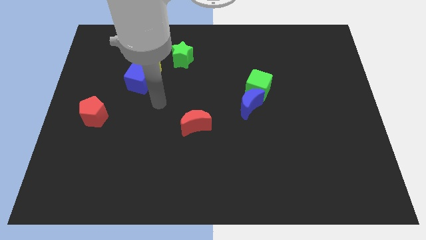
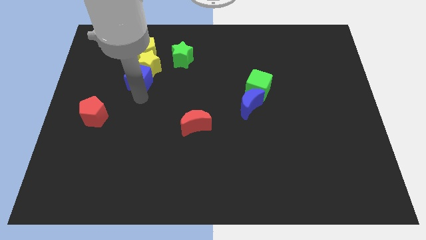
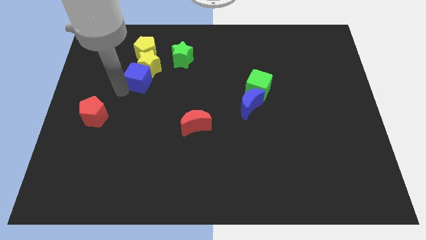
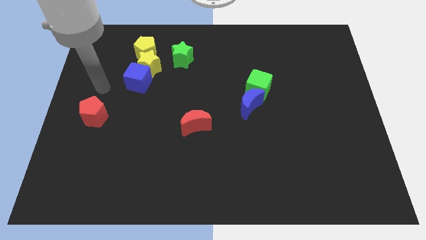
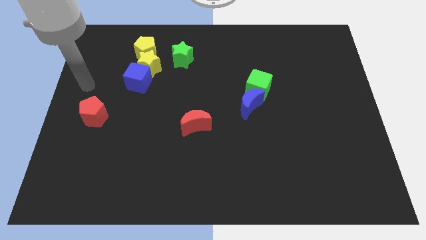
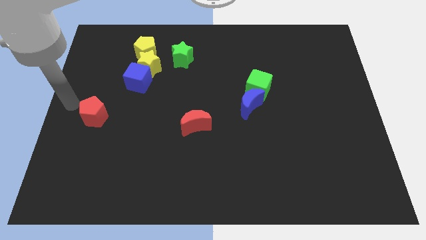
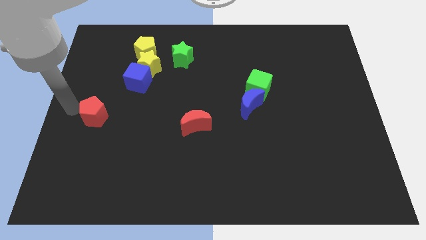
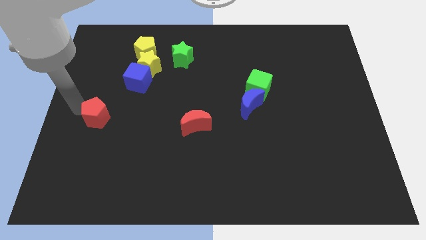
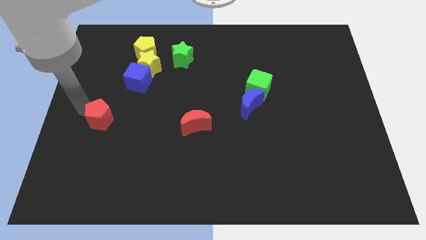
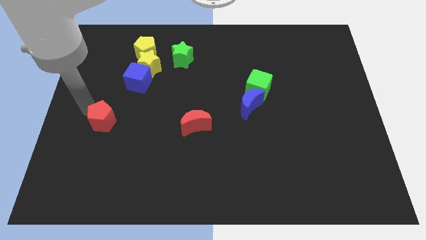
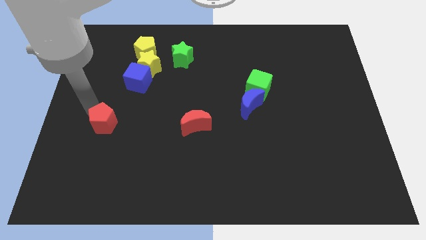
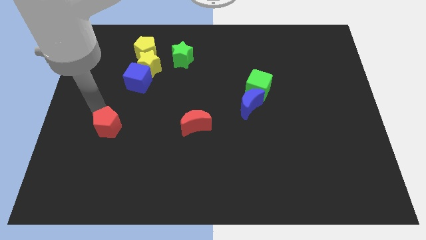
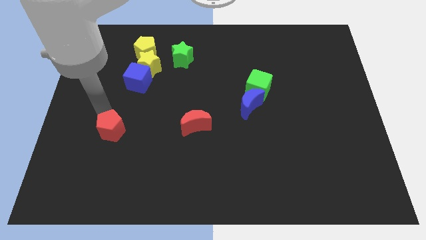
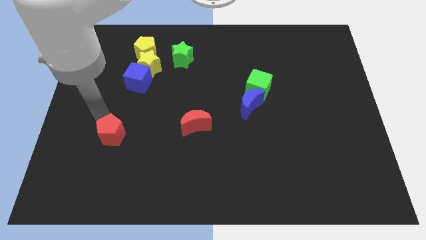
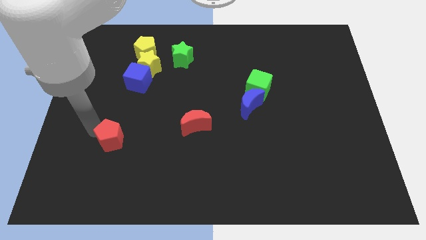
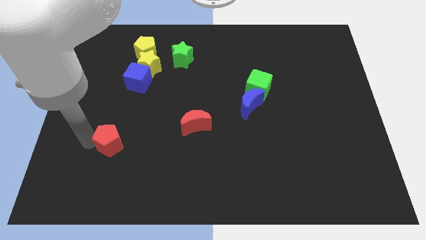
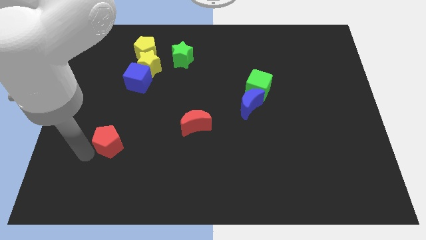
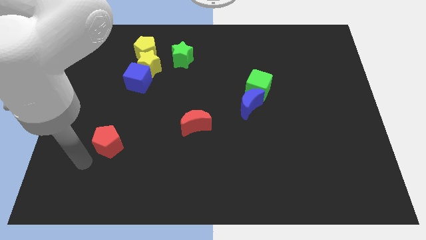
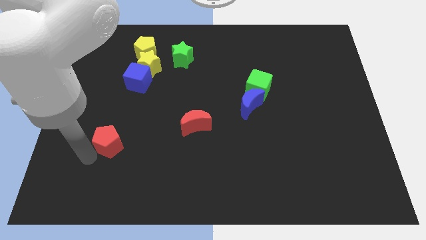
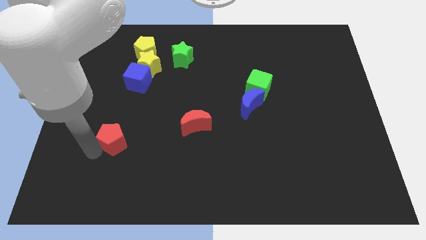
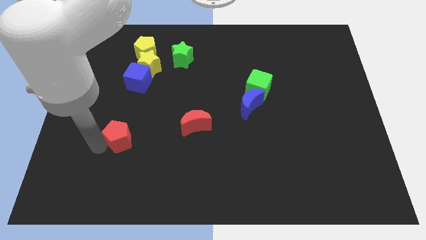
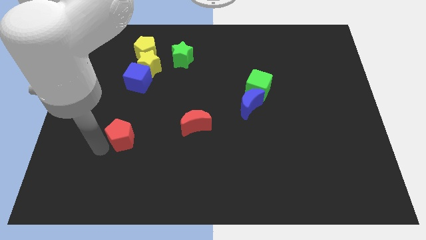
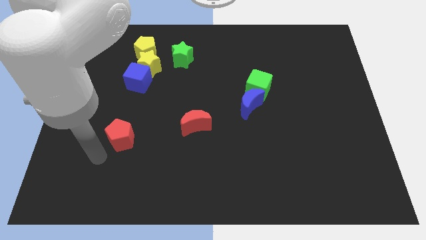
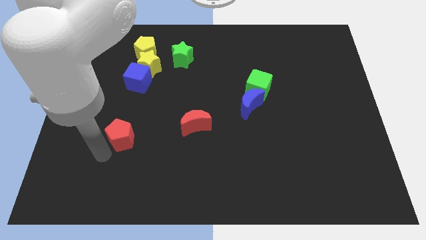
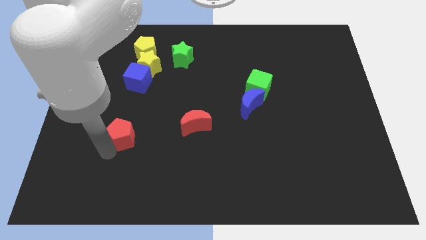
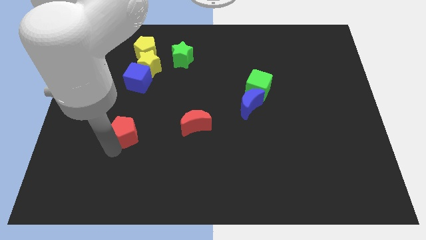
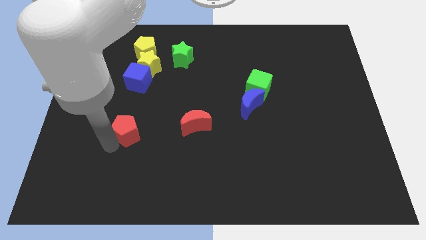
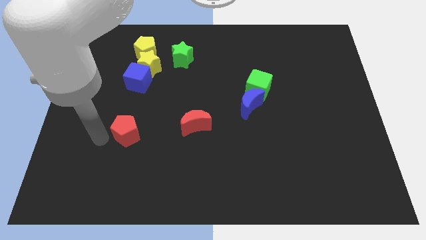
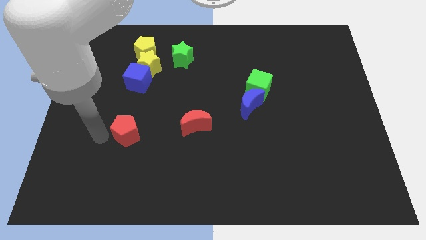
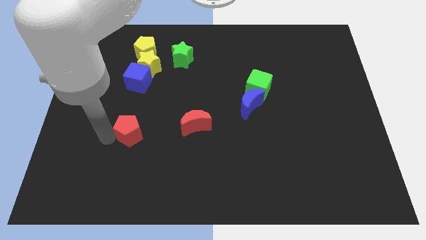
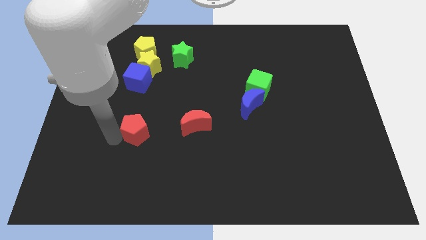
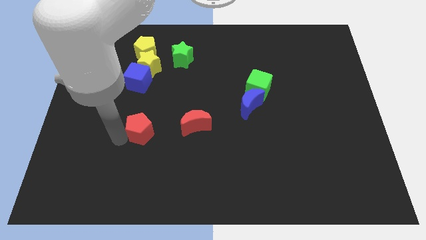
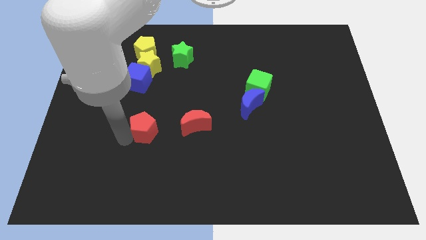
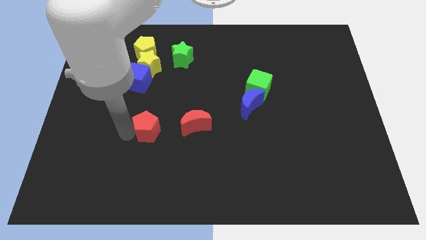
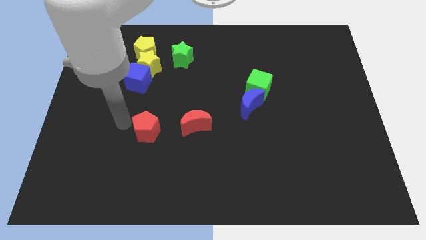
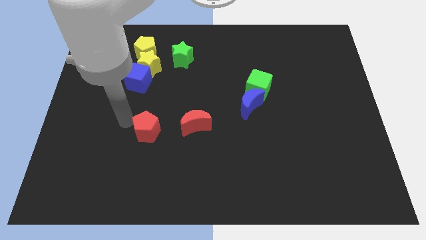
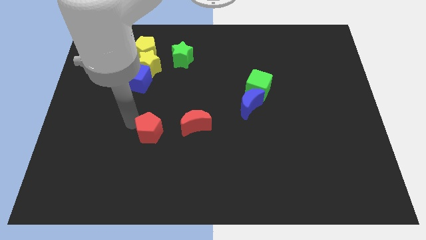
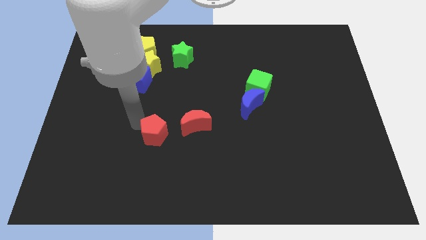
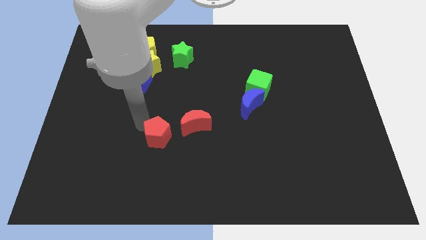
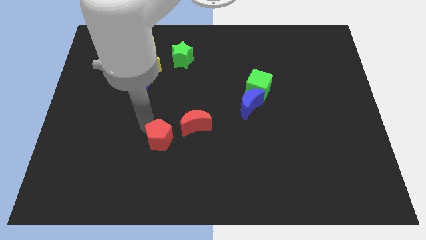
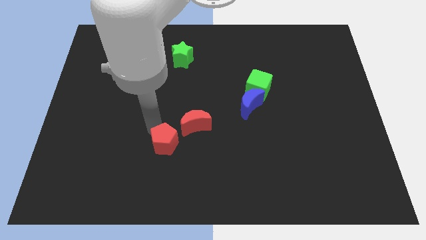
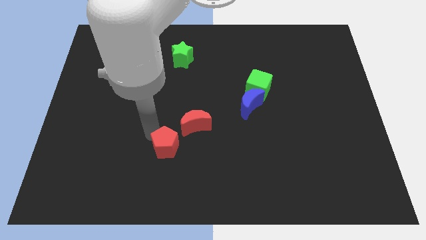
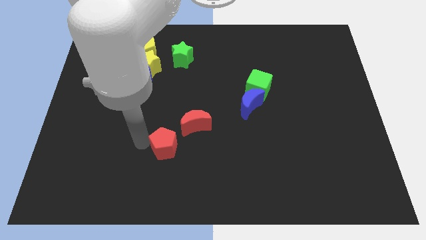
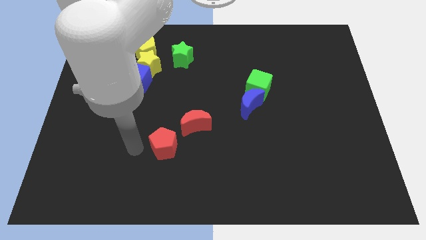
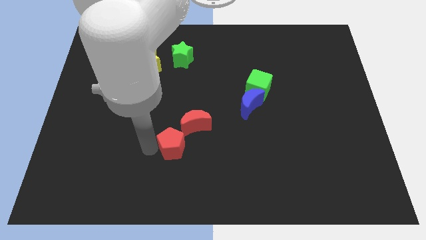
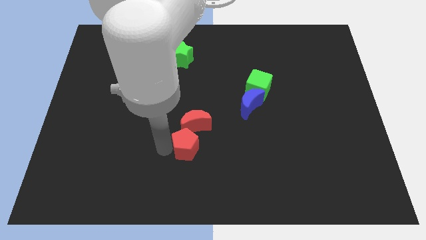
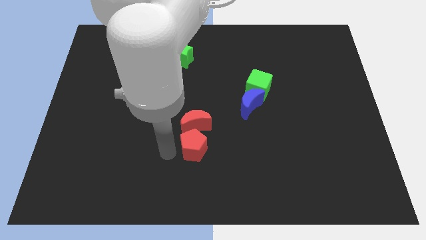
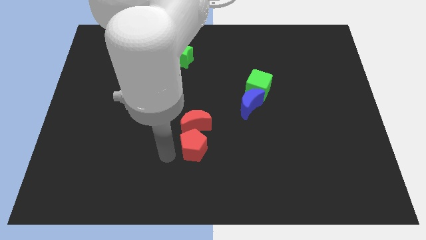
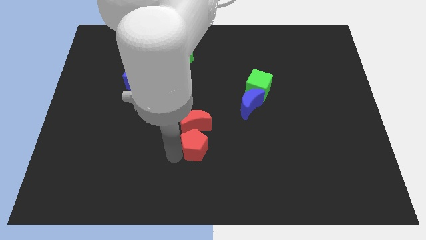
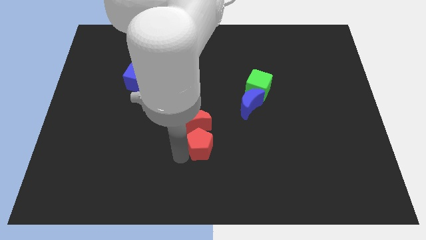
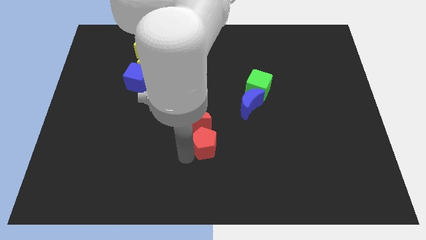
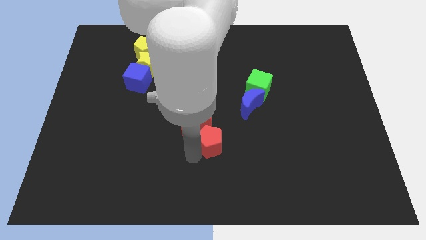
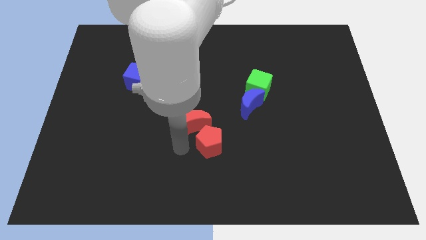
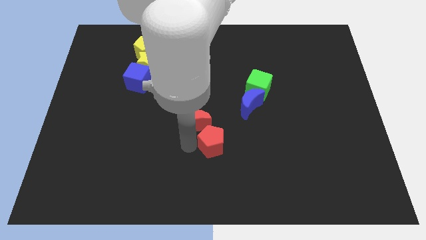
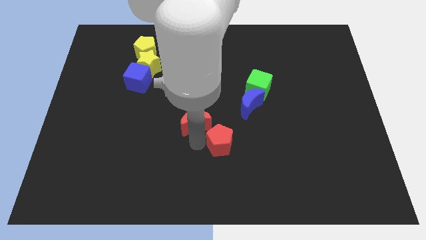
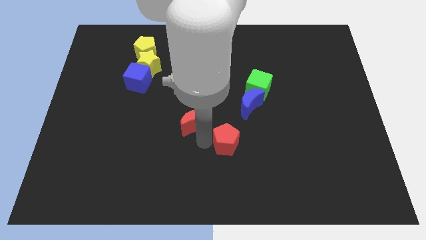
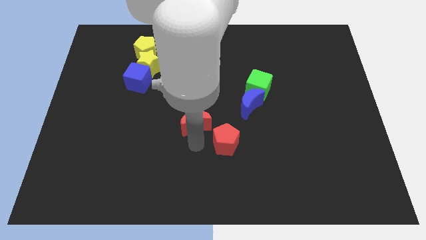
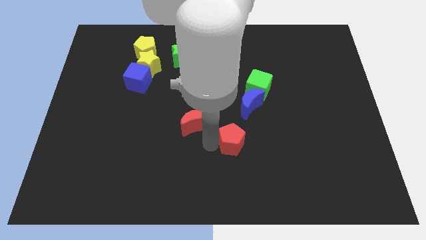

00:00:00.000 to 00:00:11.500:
slide the red pentagon to the bottom of the blue moon

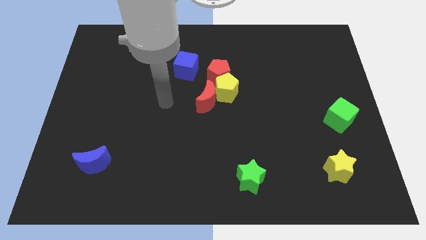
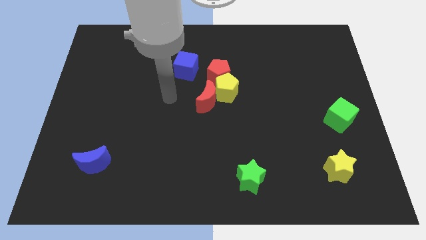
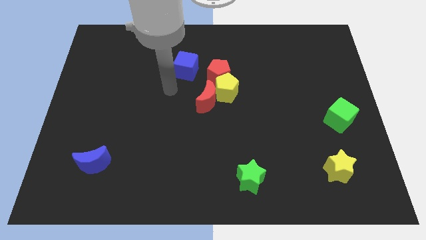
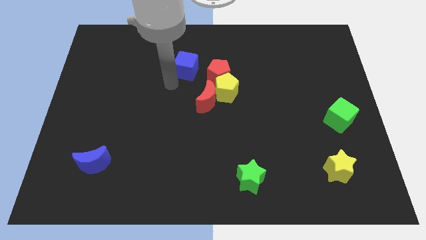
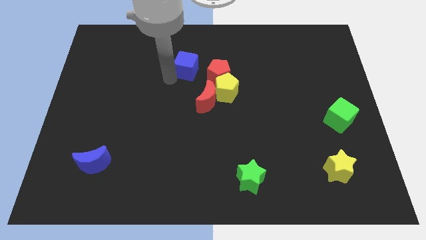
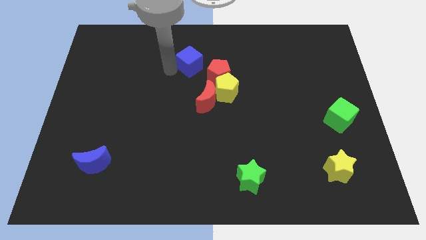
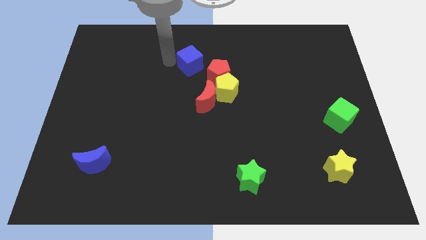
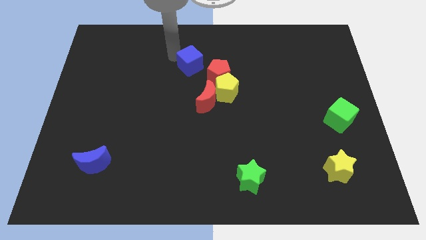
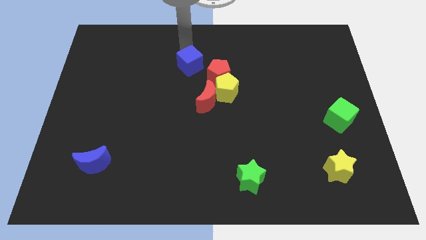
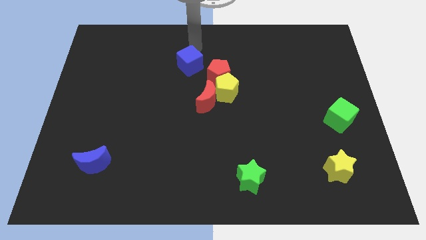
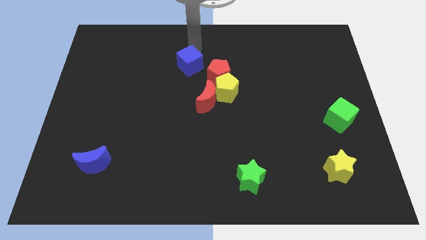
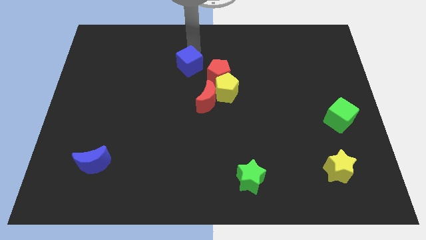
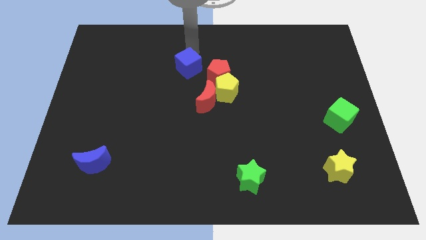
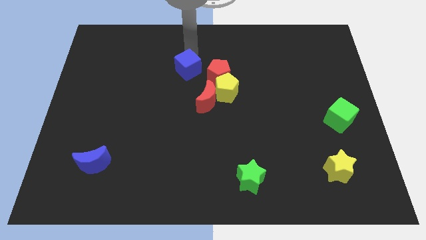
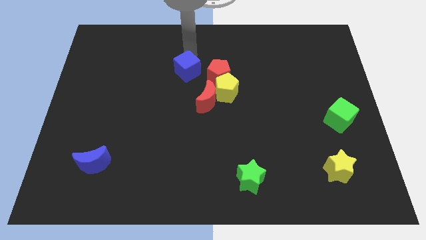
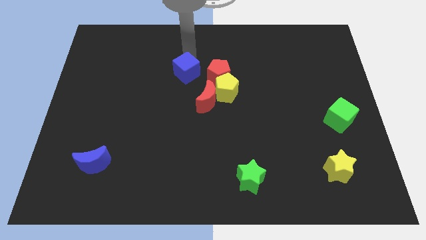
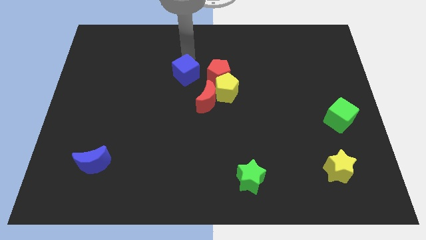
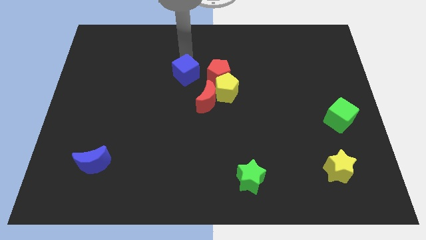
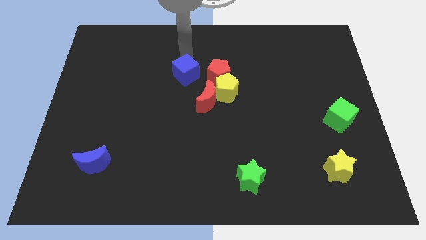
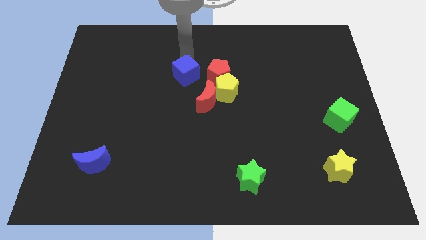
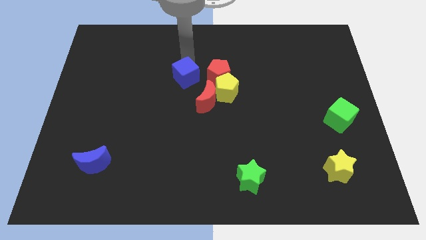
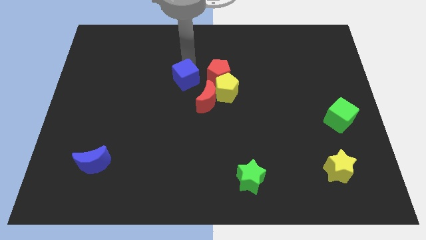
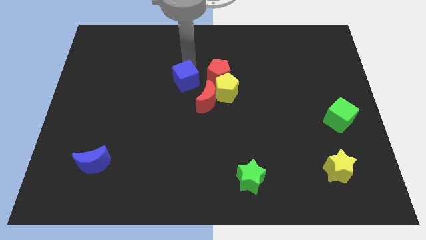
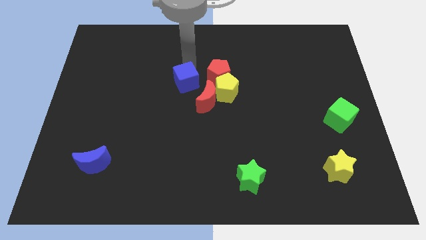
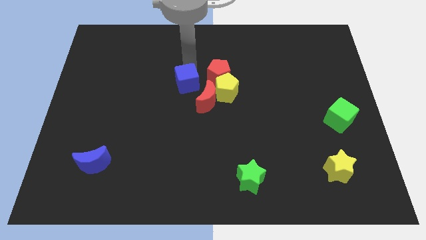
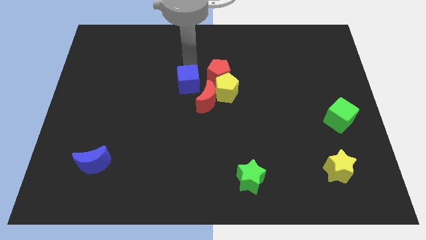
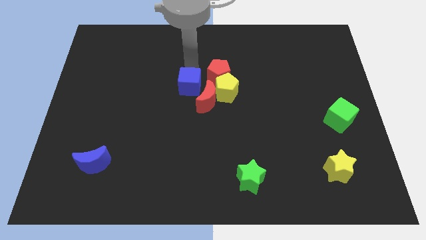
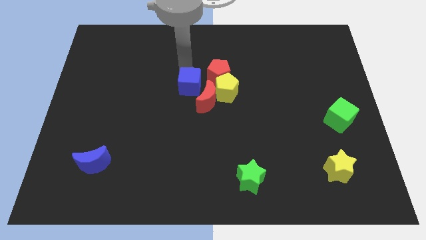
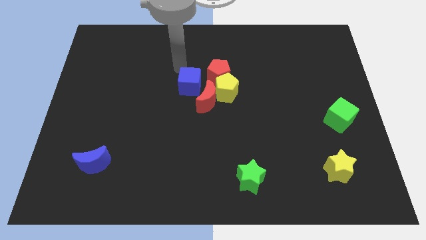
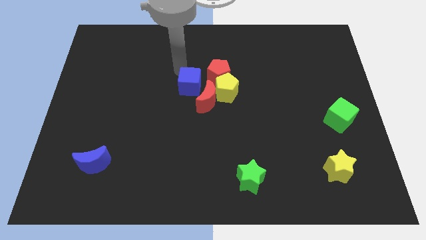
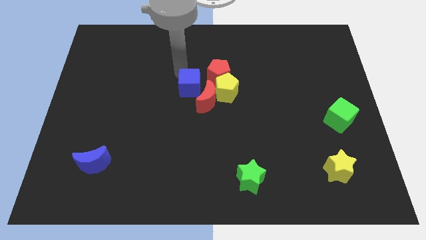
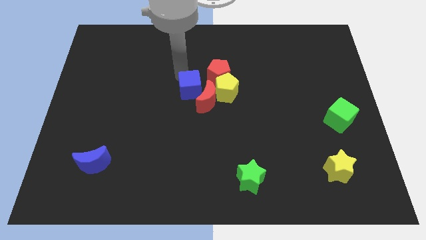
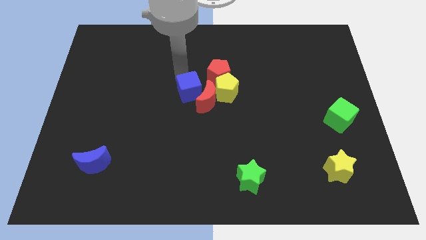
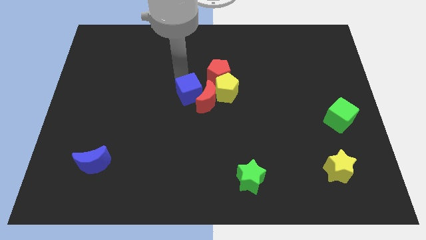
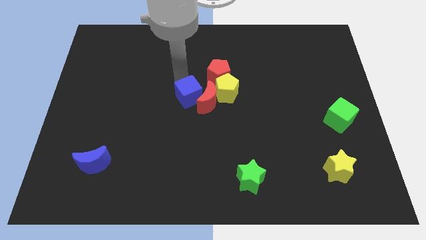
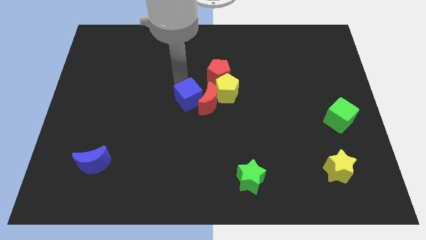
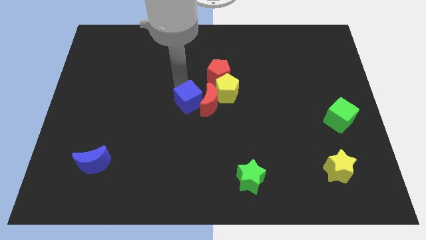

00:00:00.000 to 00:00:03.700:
put the blue cube diagonally down and to the left of the yellow pentagon
